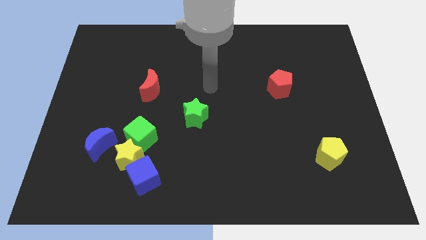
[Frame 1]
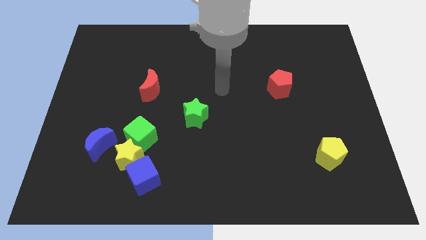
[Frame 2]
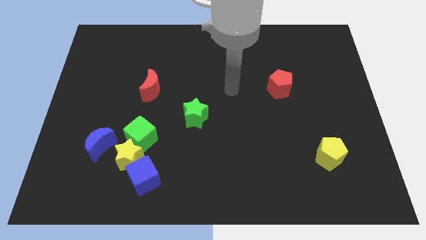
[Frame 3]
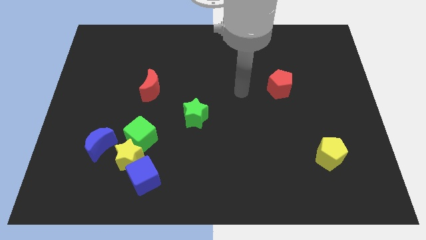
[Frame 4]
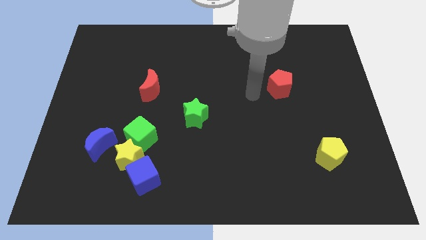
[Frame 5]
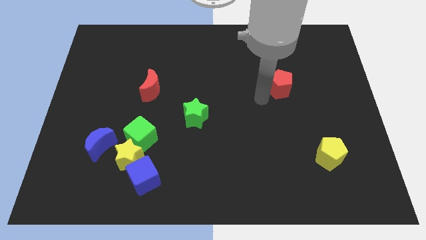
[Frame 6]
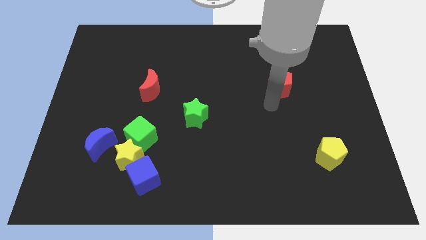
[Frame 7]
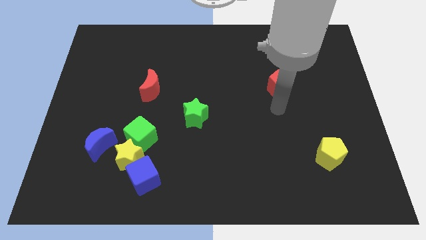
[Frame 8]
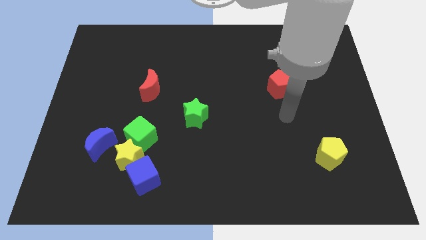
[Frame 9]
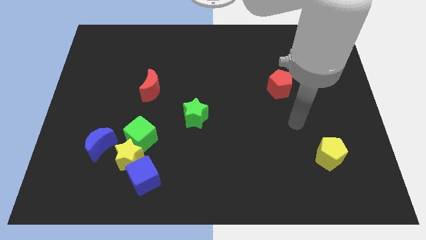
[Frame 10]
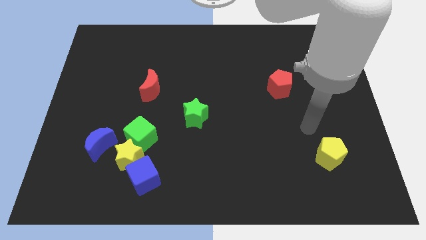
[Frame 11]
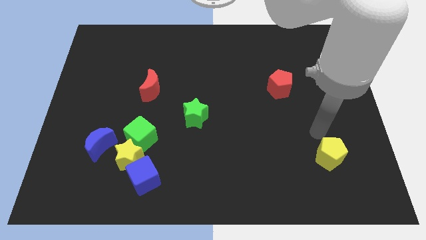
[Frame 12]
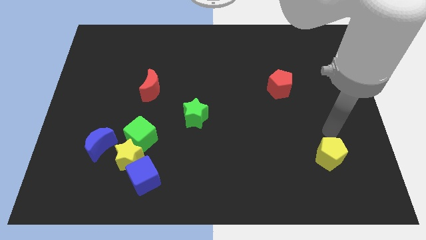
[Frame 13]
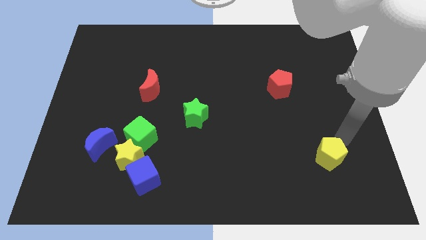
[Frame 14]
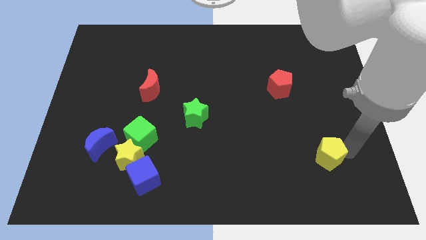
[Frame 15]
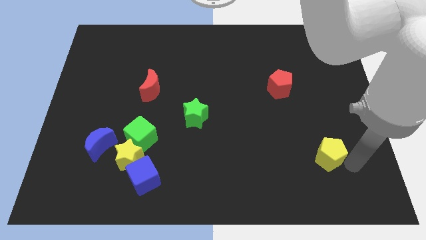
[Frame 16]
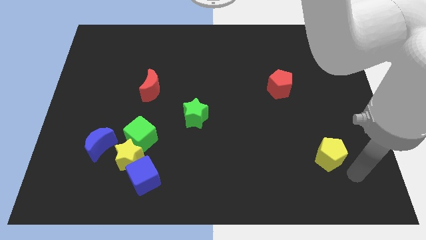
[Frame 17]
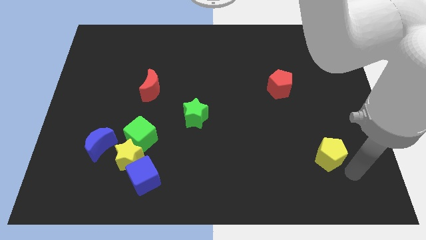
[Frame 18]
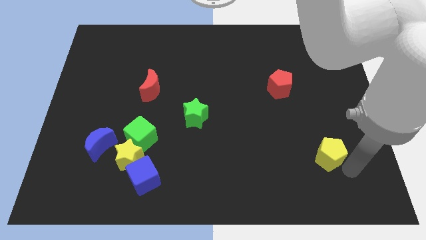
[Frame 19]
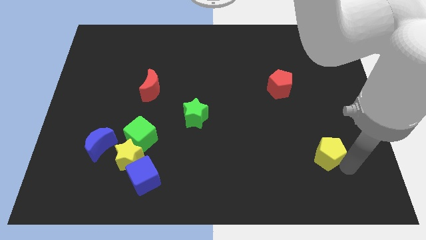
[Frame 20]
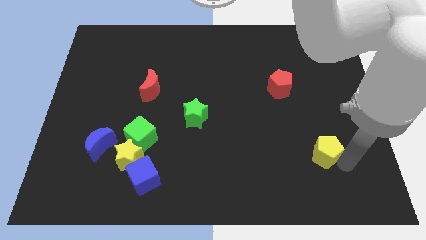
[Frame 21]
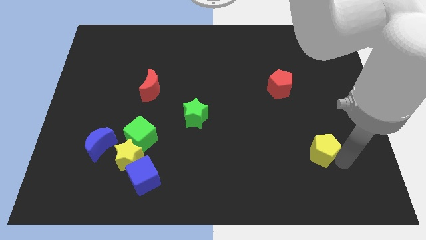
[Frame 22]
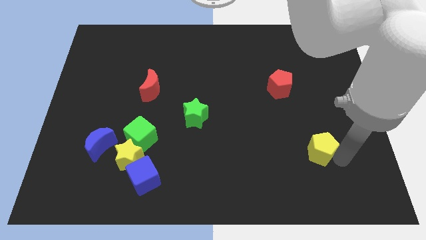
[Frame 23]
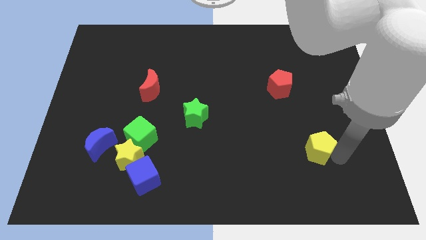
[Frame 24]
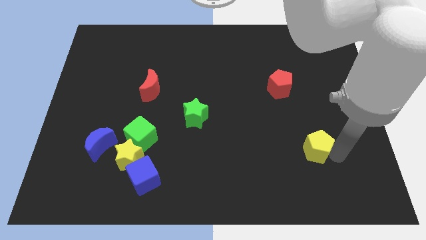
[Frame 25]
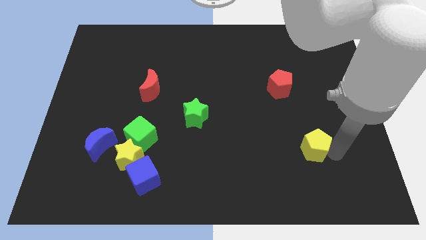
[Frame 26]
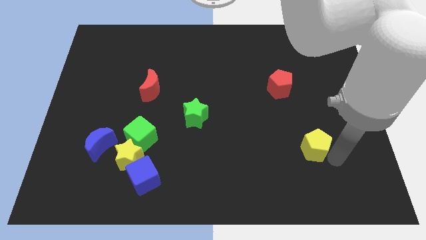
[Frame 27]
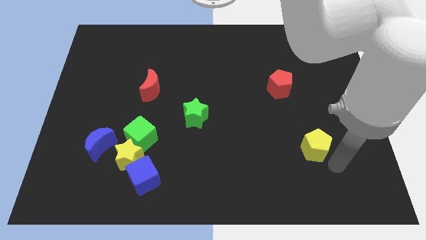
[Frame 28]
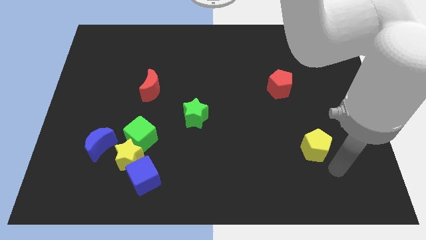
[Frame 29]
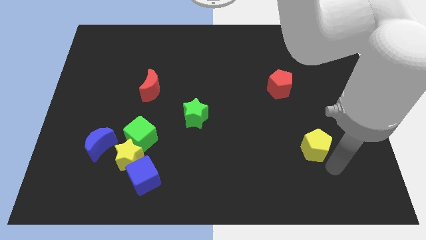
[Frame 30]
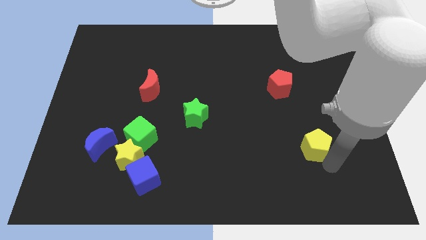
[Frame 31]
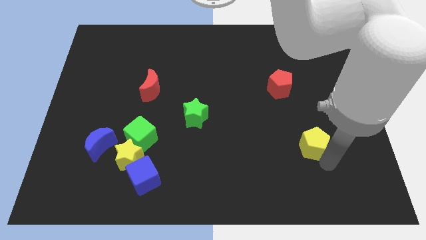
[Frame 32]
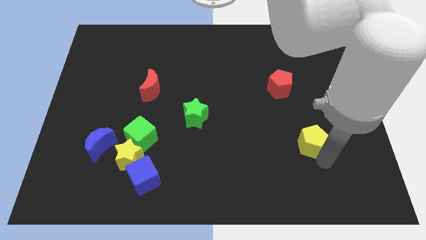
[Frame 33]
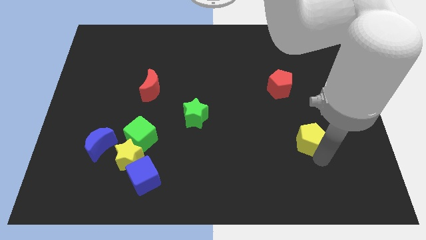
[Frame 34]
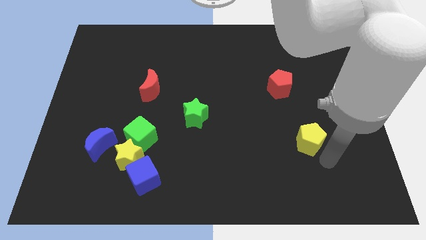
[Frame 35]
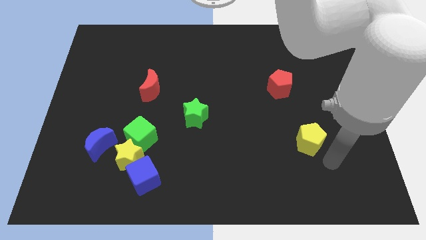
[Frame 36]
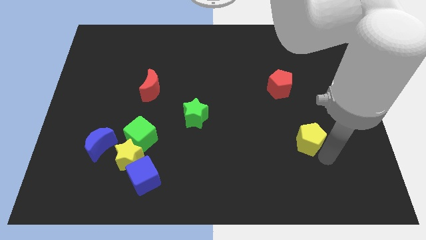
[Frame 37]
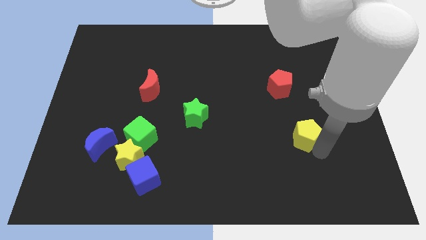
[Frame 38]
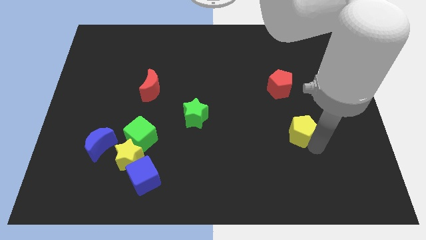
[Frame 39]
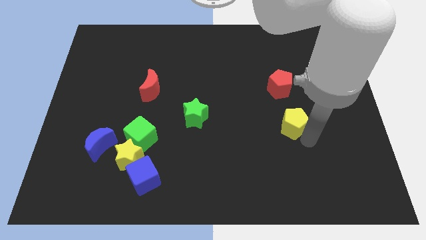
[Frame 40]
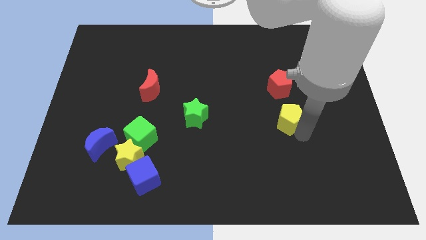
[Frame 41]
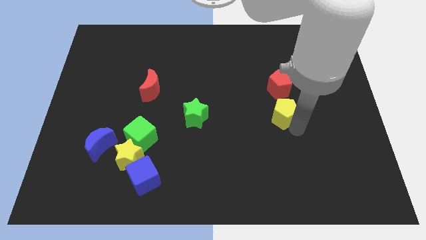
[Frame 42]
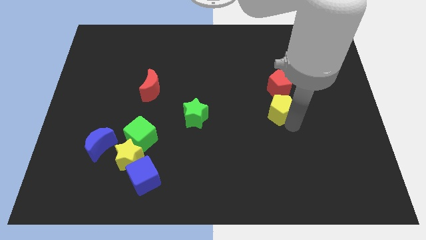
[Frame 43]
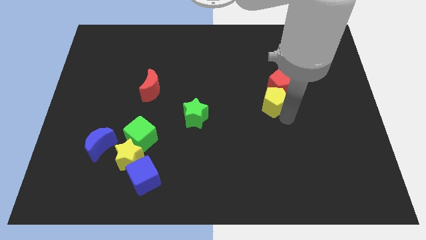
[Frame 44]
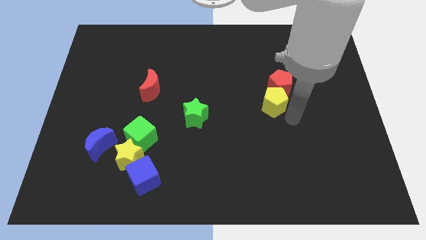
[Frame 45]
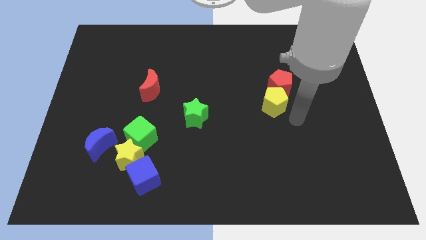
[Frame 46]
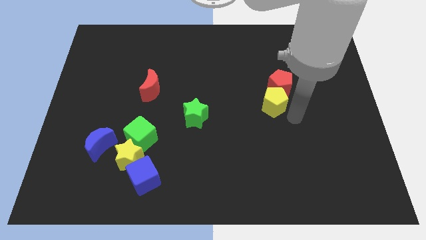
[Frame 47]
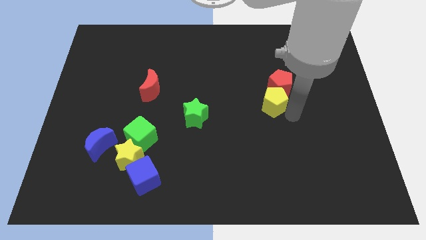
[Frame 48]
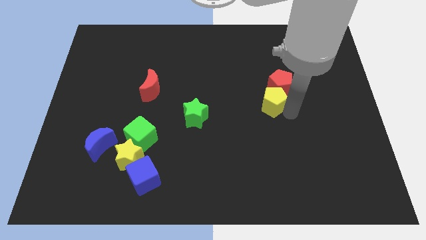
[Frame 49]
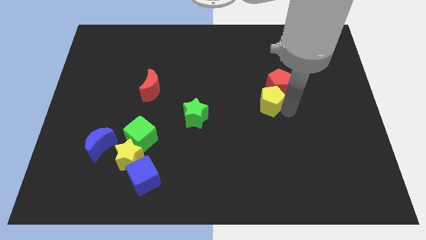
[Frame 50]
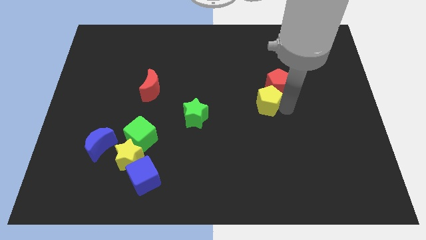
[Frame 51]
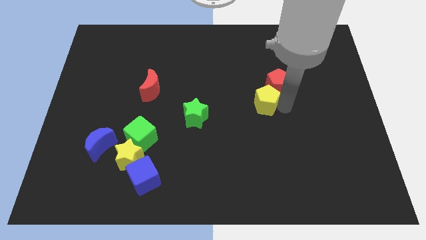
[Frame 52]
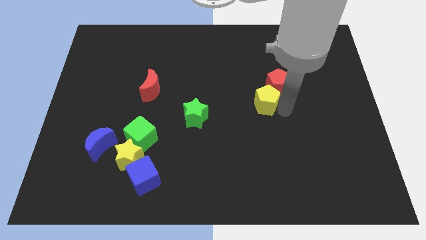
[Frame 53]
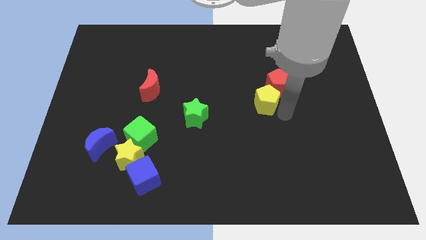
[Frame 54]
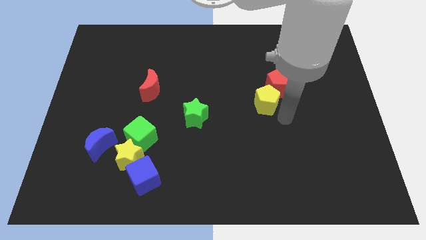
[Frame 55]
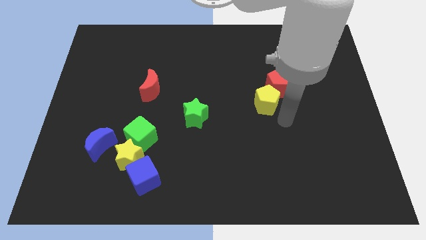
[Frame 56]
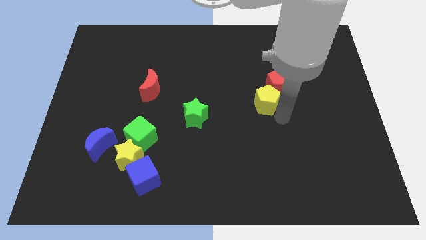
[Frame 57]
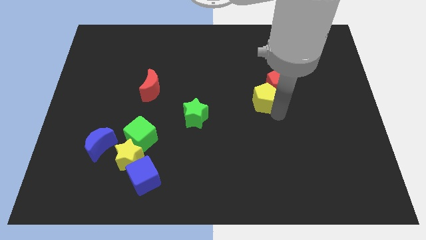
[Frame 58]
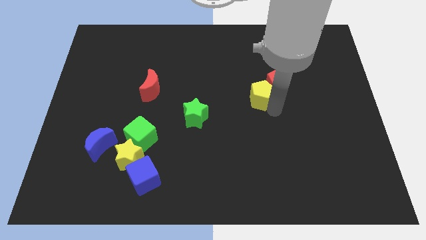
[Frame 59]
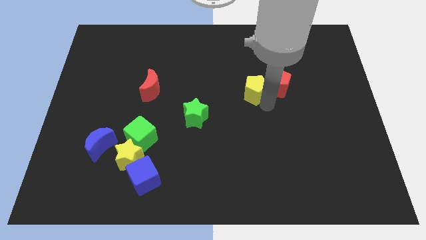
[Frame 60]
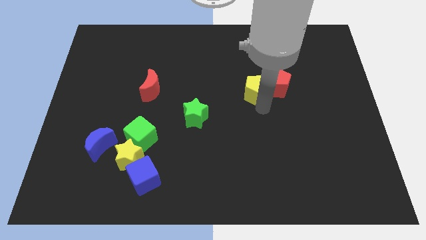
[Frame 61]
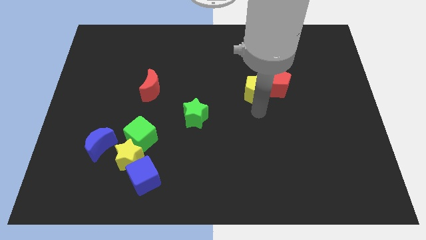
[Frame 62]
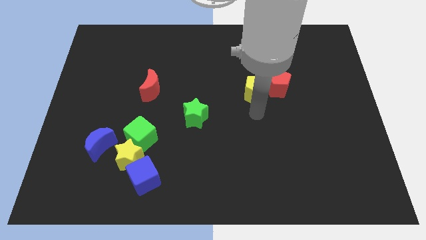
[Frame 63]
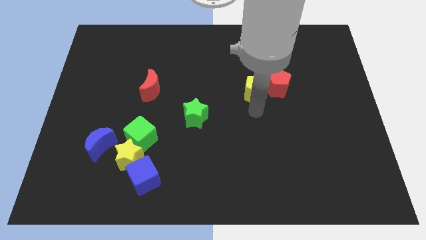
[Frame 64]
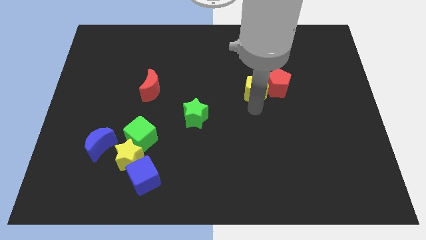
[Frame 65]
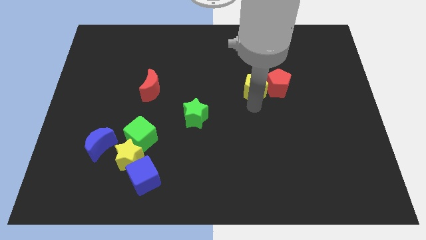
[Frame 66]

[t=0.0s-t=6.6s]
put the yellow pentagon to the top left of the red pentagon
